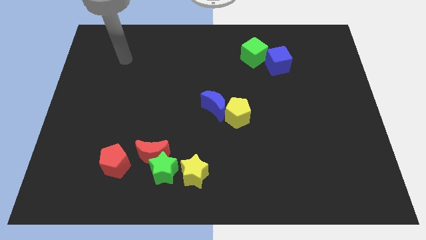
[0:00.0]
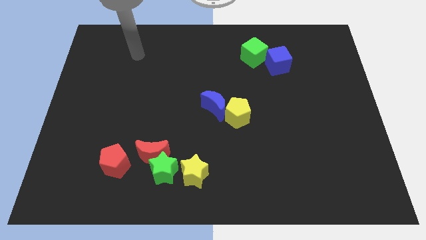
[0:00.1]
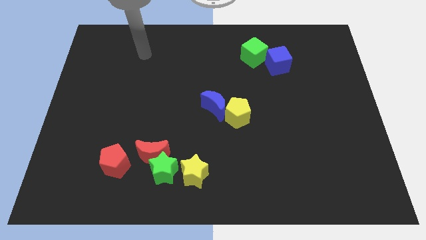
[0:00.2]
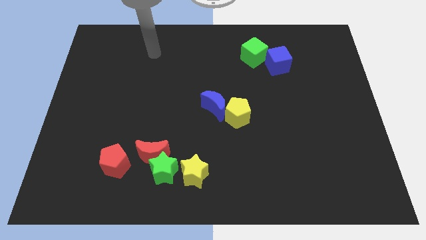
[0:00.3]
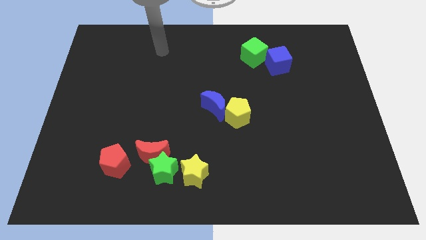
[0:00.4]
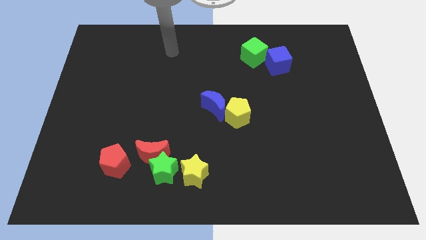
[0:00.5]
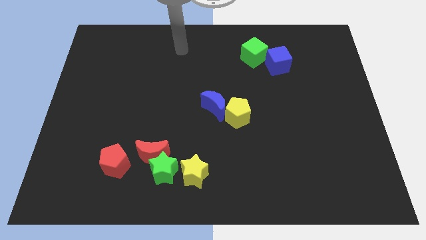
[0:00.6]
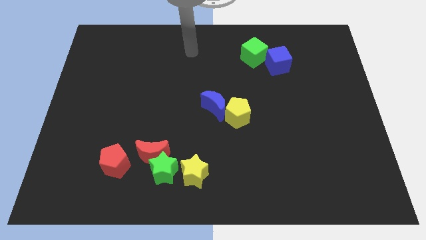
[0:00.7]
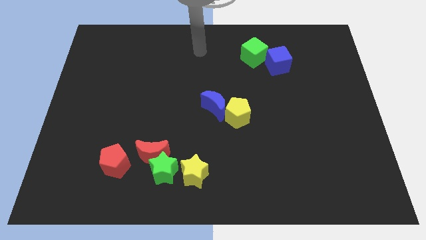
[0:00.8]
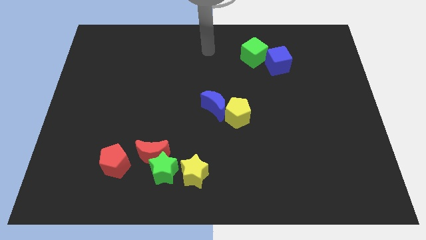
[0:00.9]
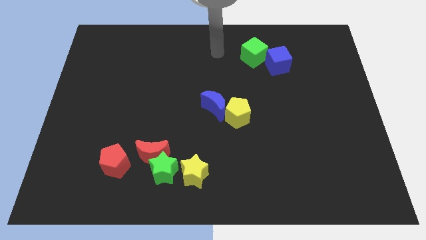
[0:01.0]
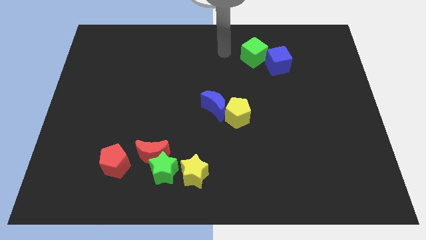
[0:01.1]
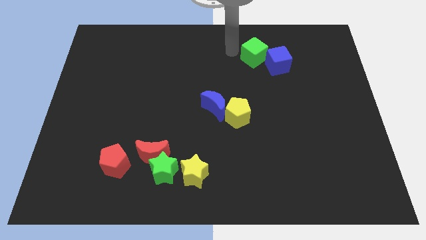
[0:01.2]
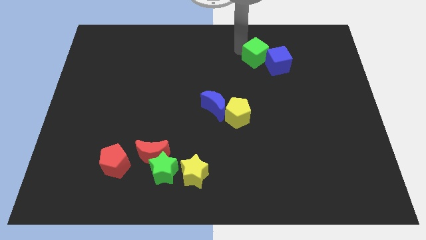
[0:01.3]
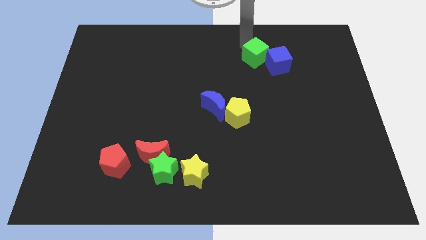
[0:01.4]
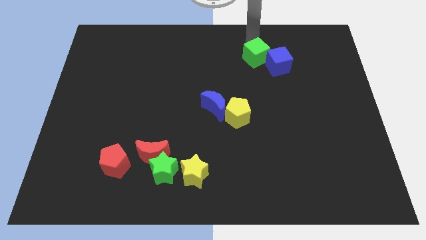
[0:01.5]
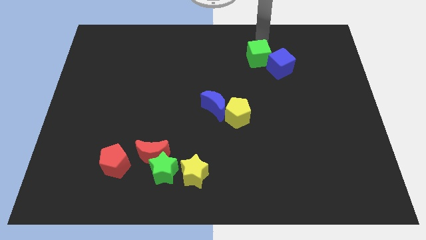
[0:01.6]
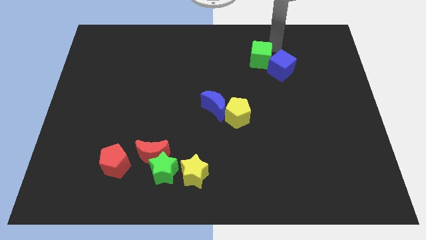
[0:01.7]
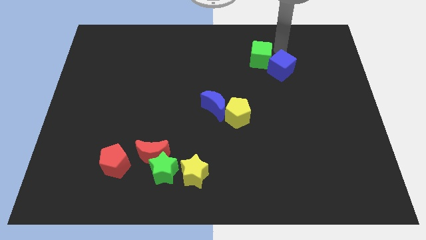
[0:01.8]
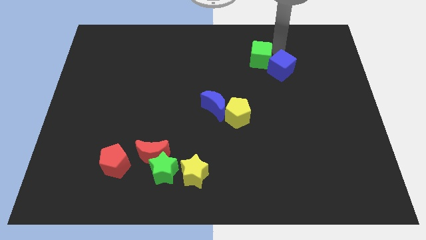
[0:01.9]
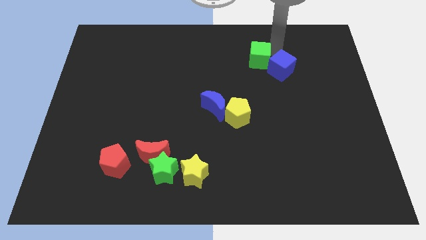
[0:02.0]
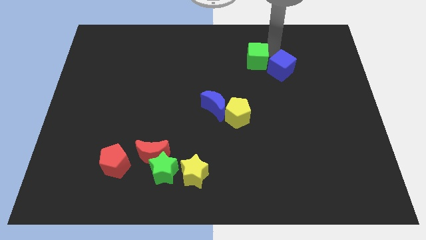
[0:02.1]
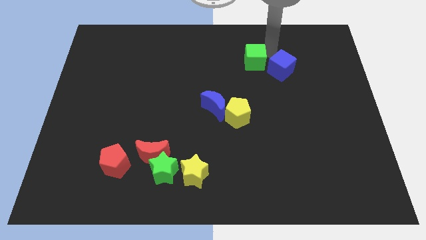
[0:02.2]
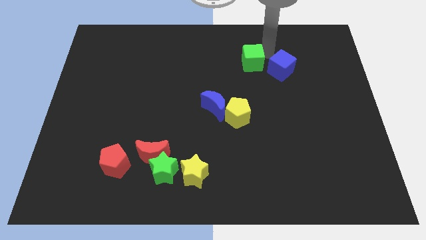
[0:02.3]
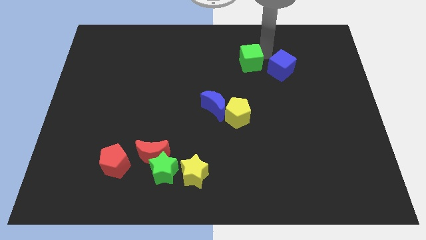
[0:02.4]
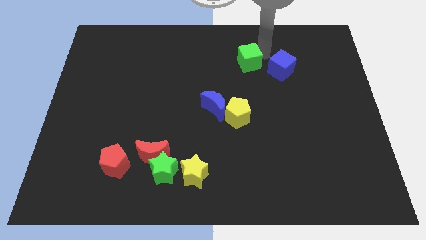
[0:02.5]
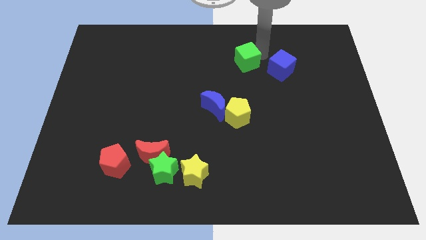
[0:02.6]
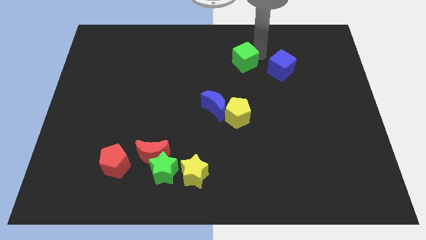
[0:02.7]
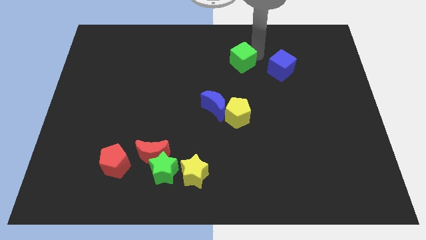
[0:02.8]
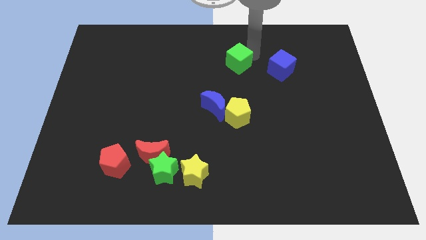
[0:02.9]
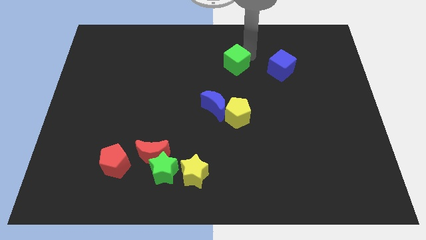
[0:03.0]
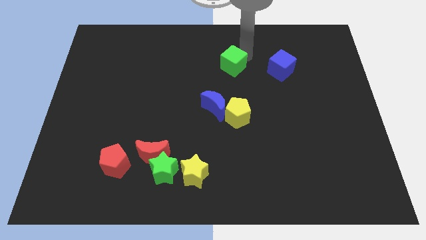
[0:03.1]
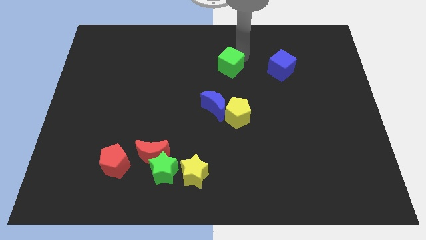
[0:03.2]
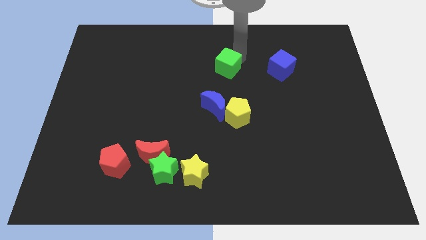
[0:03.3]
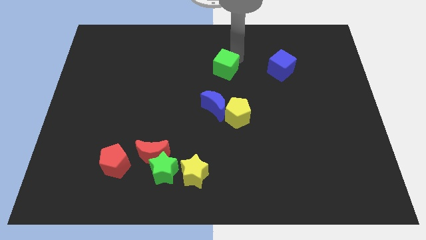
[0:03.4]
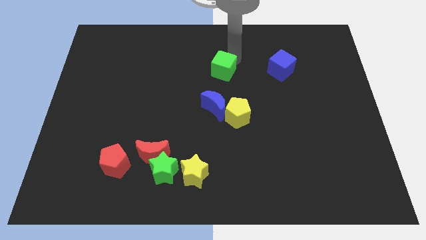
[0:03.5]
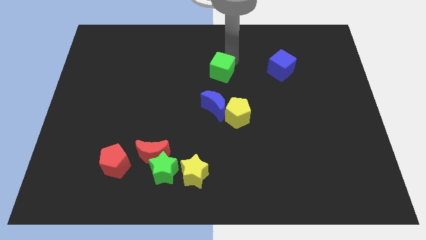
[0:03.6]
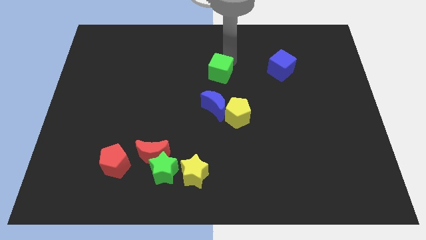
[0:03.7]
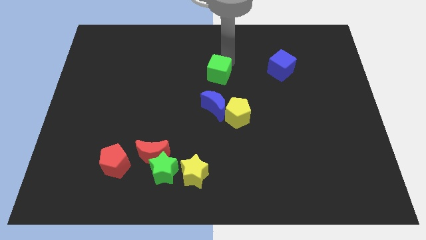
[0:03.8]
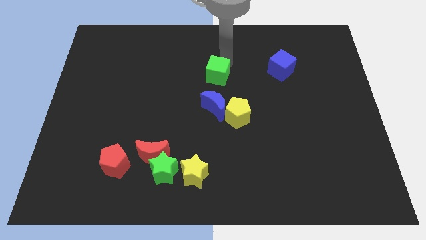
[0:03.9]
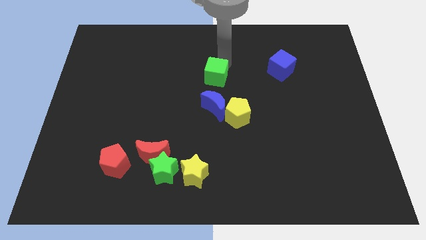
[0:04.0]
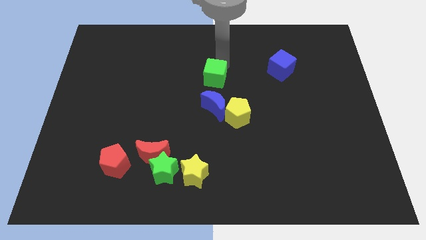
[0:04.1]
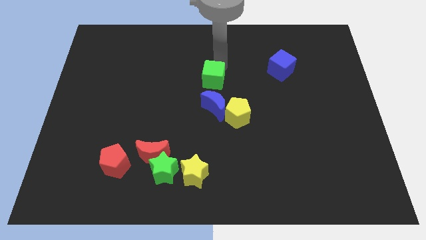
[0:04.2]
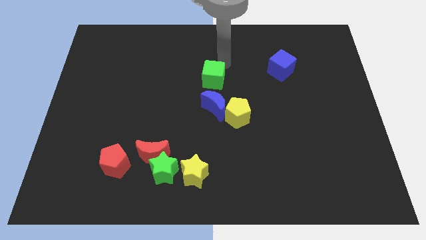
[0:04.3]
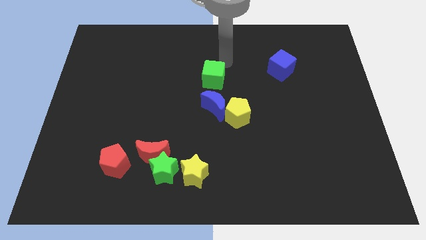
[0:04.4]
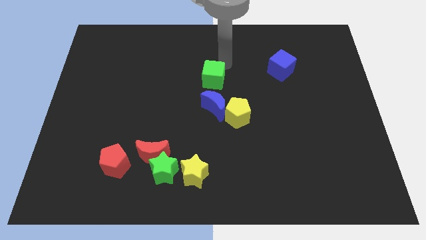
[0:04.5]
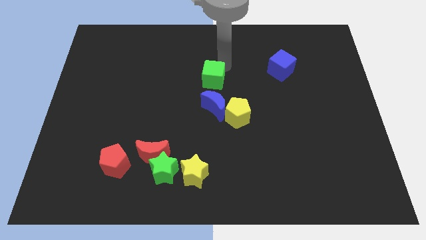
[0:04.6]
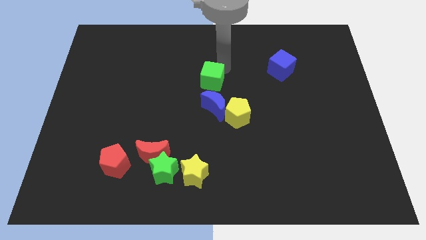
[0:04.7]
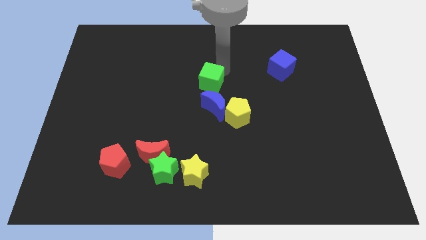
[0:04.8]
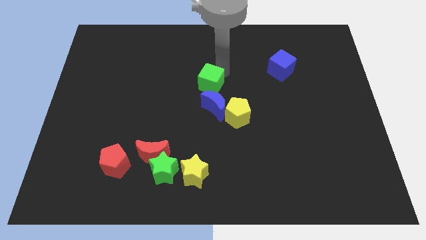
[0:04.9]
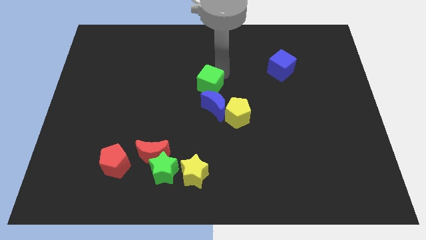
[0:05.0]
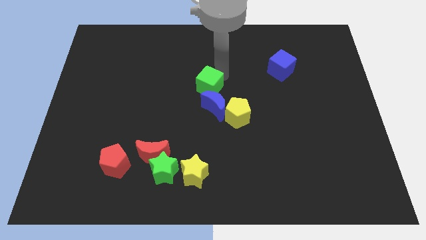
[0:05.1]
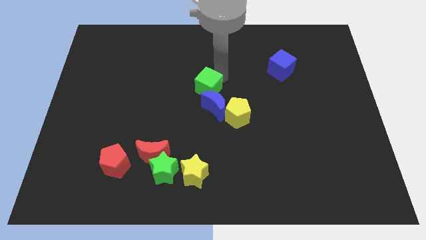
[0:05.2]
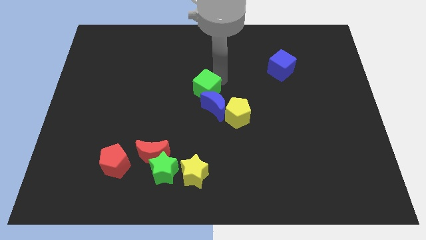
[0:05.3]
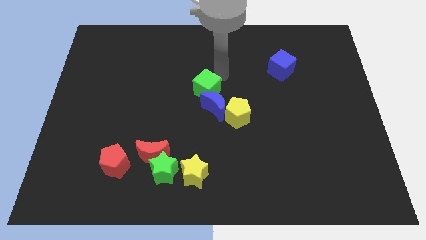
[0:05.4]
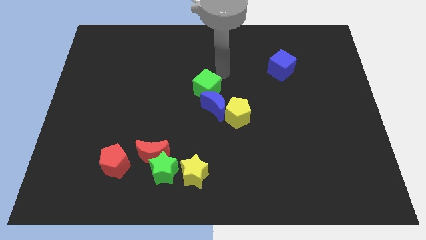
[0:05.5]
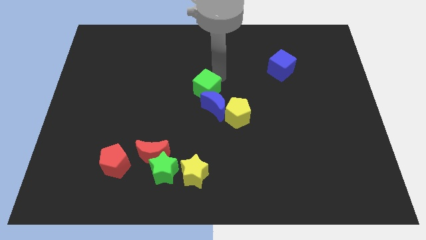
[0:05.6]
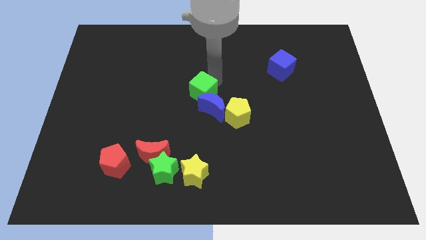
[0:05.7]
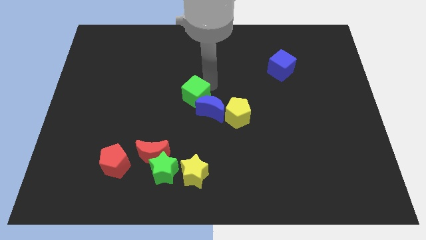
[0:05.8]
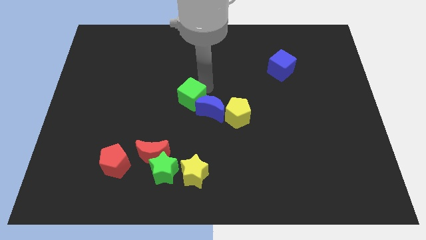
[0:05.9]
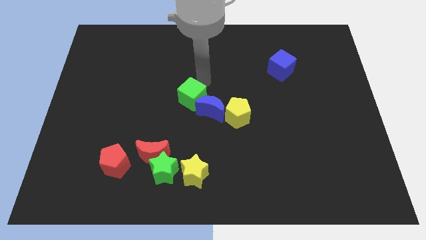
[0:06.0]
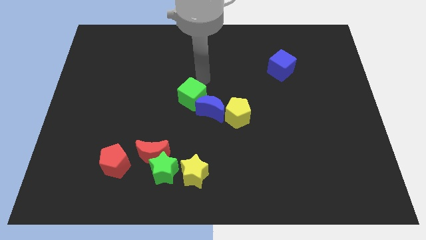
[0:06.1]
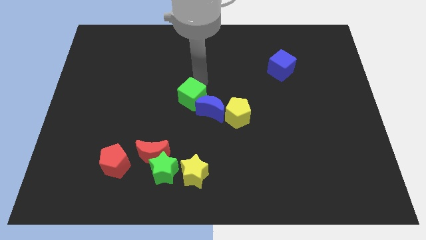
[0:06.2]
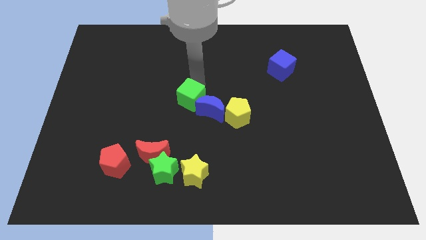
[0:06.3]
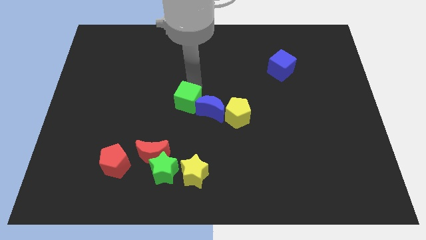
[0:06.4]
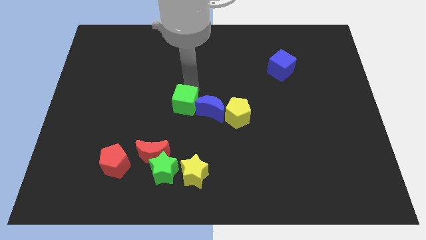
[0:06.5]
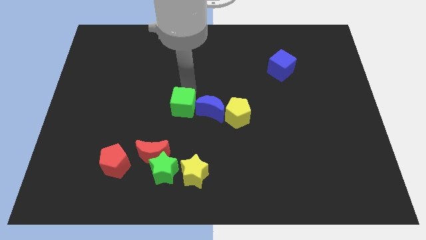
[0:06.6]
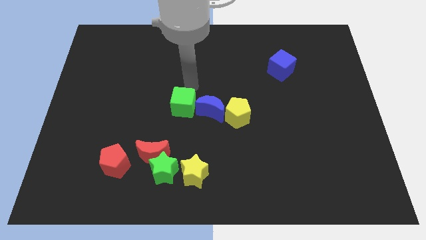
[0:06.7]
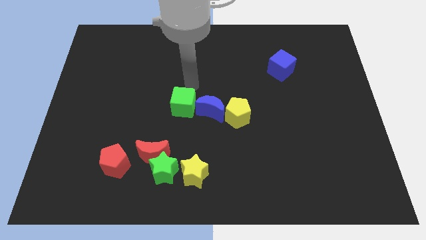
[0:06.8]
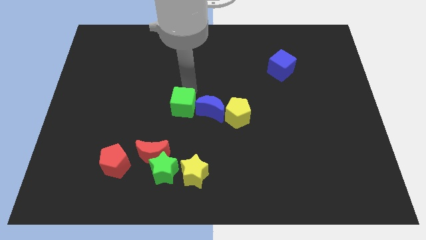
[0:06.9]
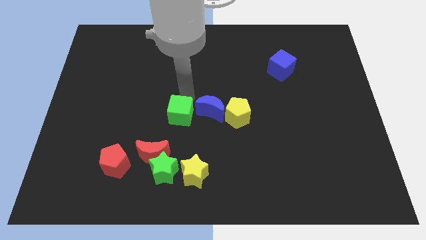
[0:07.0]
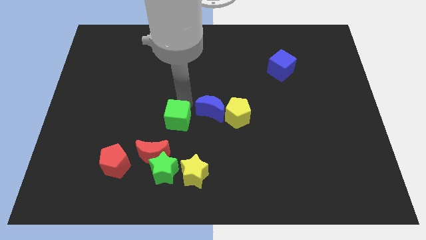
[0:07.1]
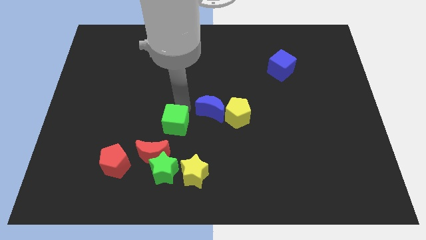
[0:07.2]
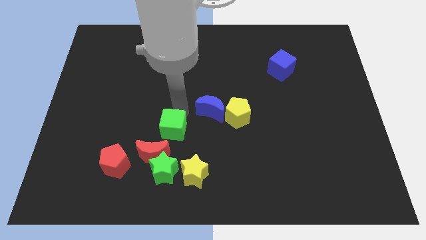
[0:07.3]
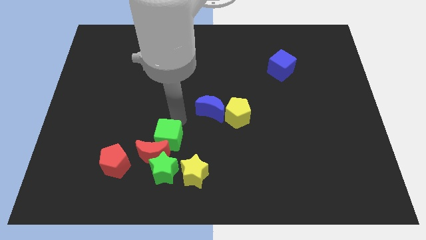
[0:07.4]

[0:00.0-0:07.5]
slide the green cube towards the red moon
